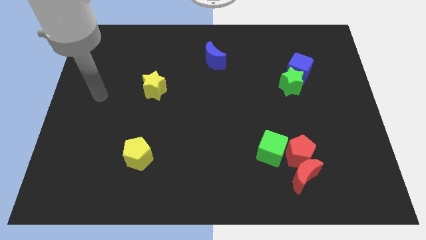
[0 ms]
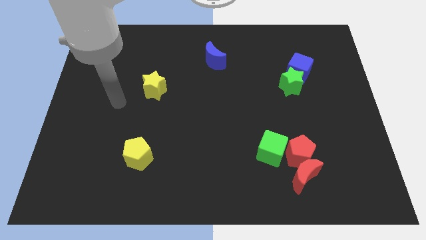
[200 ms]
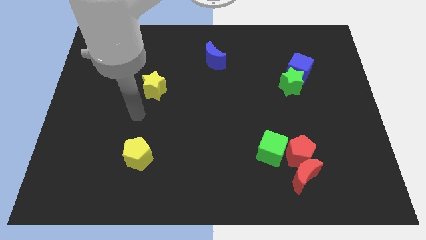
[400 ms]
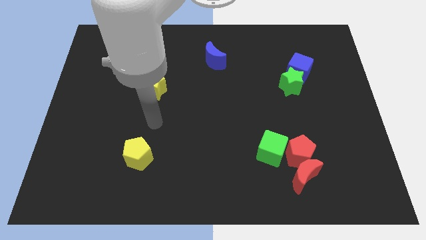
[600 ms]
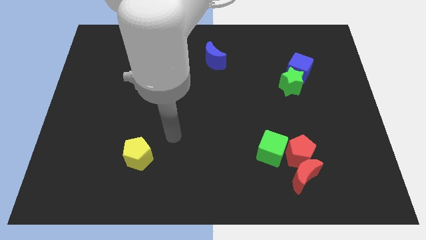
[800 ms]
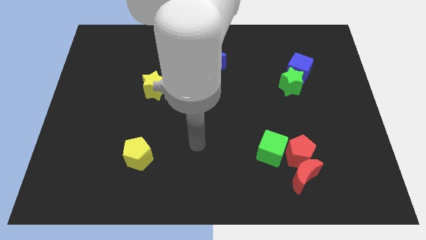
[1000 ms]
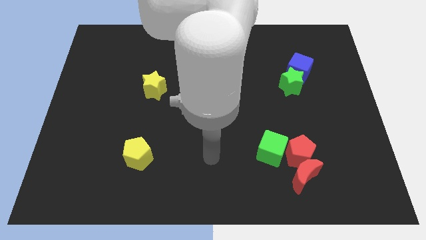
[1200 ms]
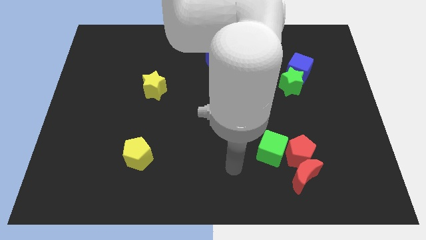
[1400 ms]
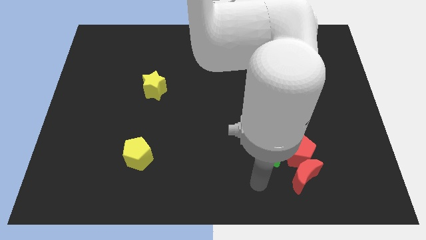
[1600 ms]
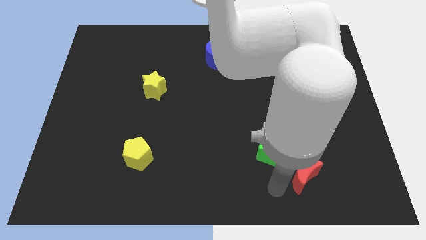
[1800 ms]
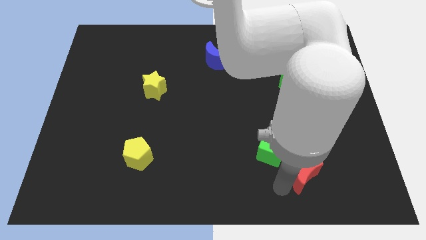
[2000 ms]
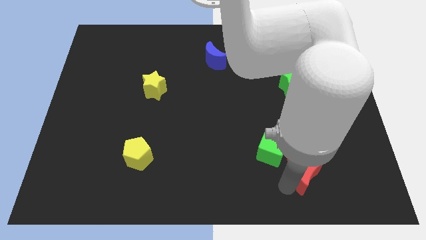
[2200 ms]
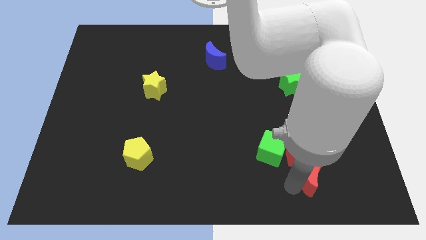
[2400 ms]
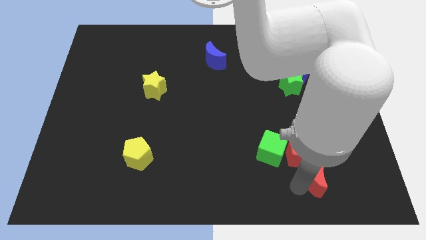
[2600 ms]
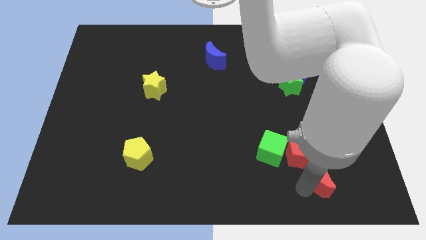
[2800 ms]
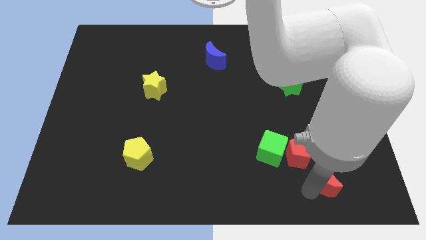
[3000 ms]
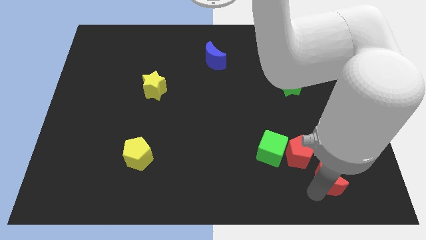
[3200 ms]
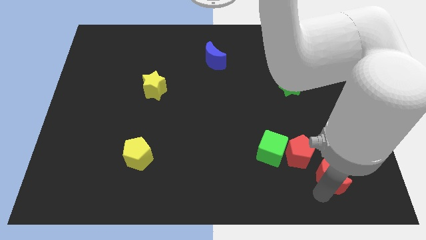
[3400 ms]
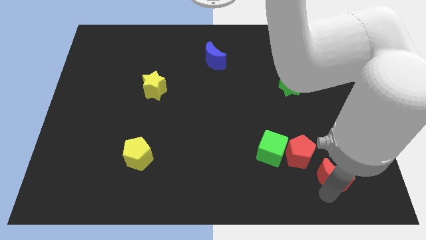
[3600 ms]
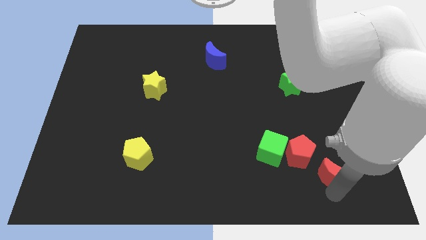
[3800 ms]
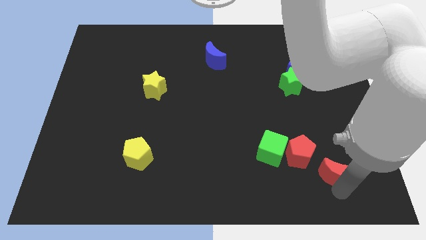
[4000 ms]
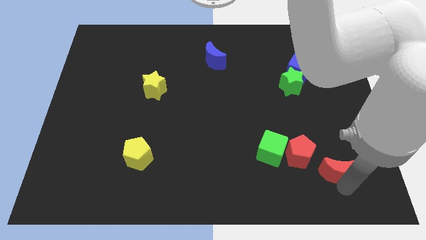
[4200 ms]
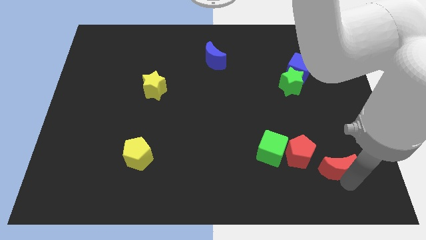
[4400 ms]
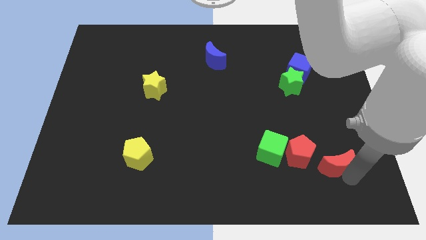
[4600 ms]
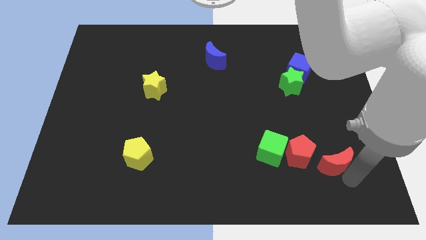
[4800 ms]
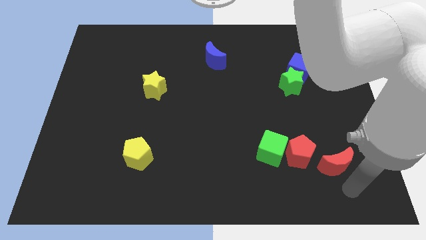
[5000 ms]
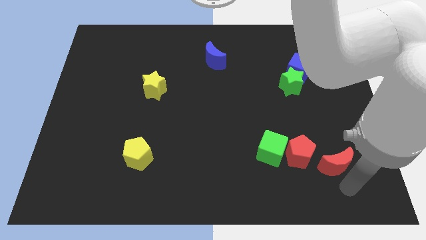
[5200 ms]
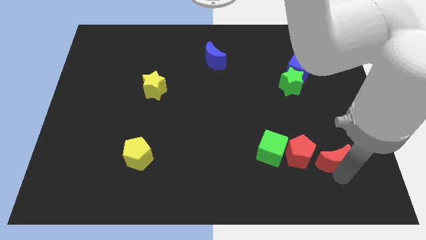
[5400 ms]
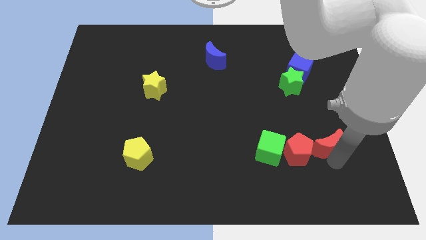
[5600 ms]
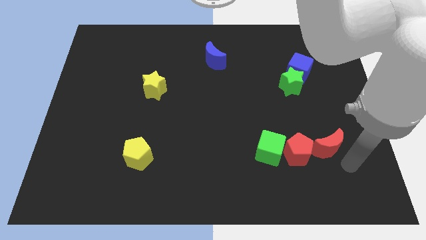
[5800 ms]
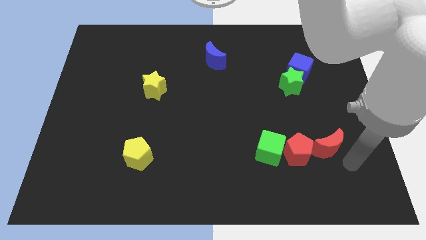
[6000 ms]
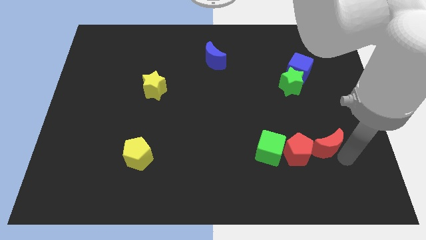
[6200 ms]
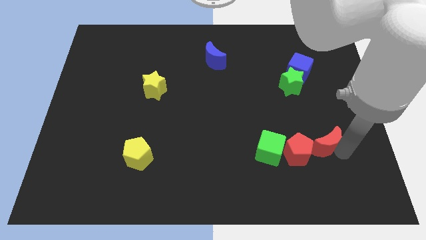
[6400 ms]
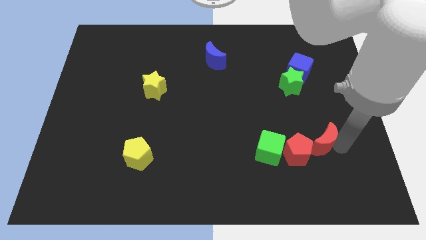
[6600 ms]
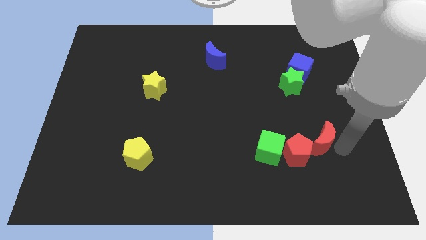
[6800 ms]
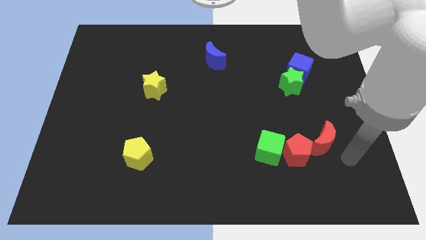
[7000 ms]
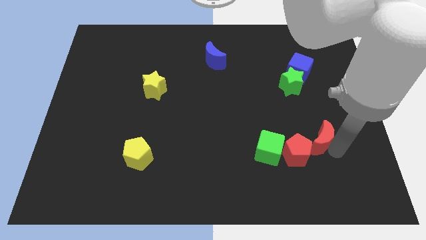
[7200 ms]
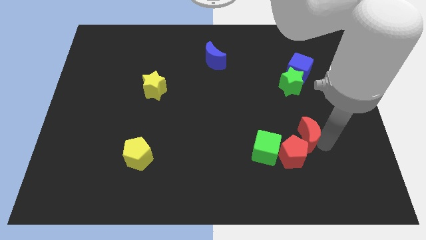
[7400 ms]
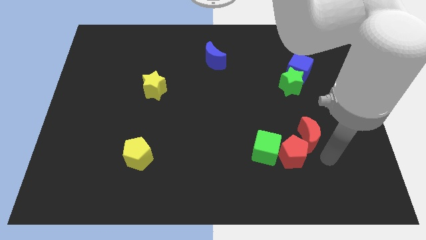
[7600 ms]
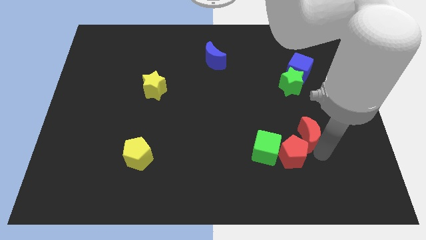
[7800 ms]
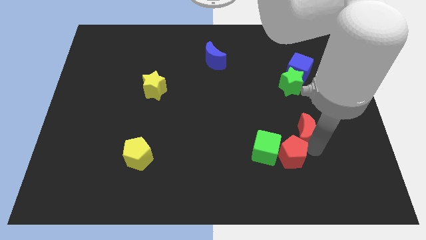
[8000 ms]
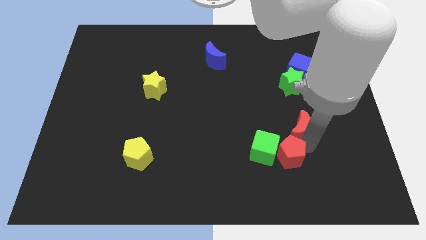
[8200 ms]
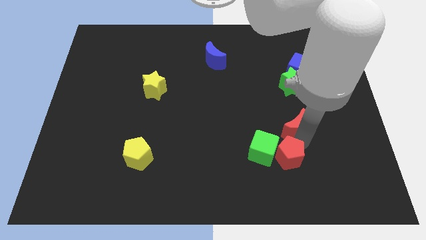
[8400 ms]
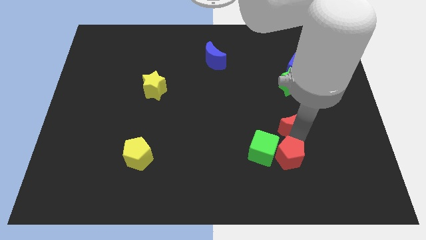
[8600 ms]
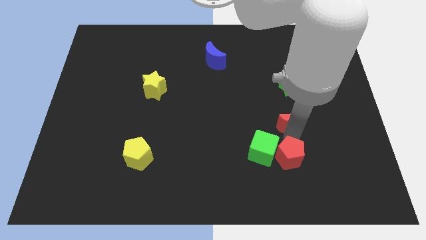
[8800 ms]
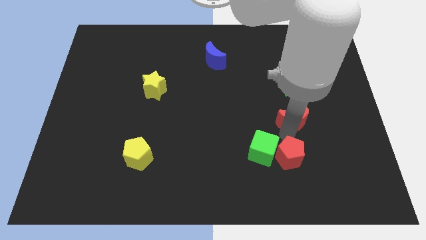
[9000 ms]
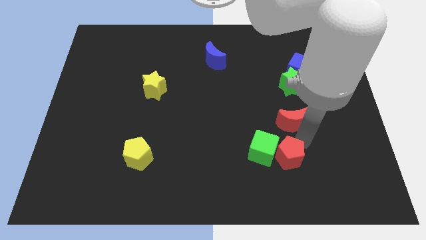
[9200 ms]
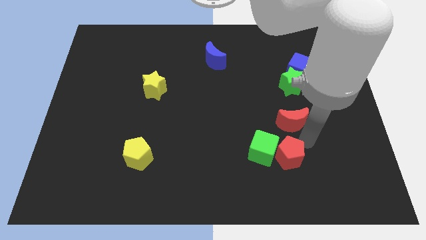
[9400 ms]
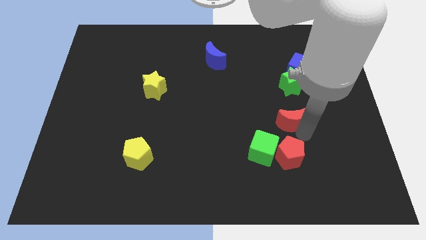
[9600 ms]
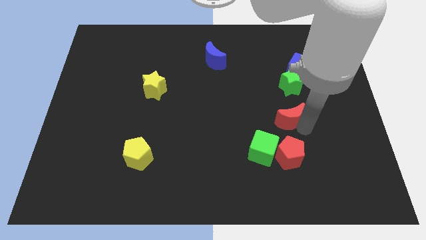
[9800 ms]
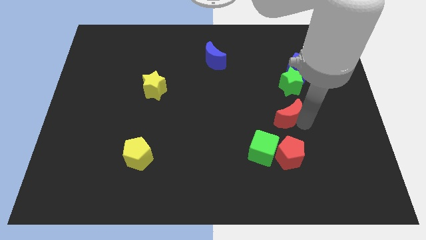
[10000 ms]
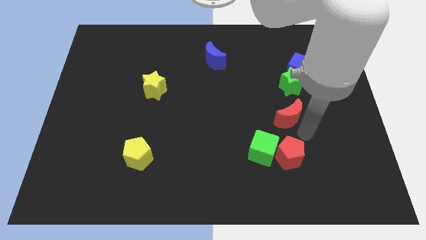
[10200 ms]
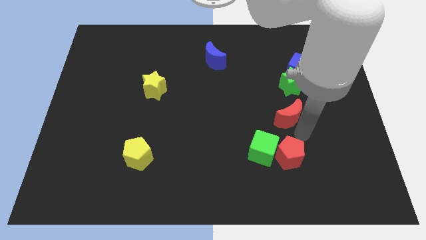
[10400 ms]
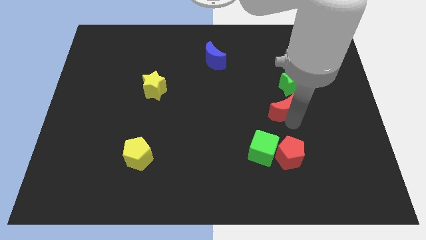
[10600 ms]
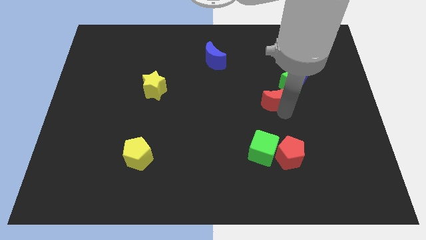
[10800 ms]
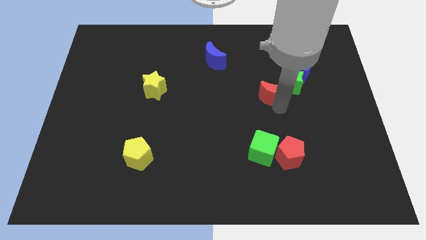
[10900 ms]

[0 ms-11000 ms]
push the red moon up

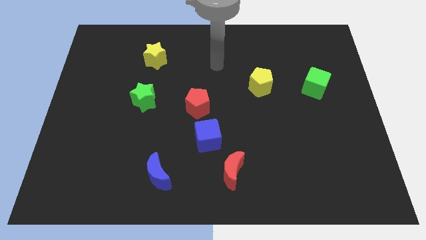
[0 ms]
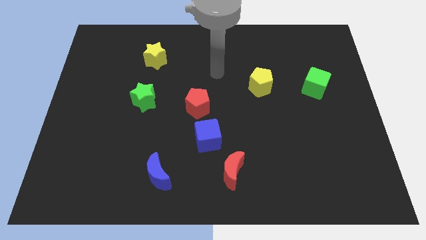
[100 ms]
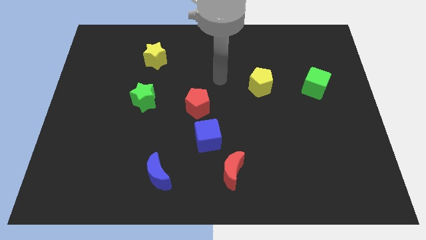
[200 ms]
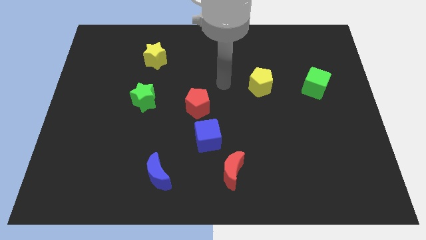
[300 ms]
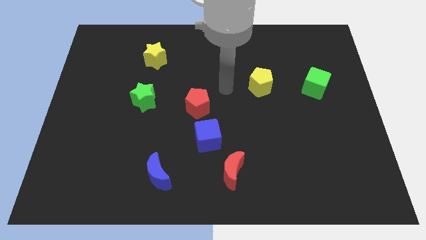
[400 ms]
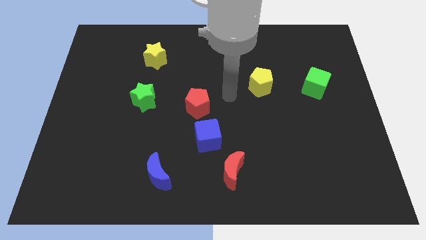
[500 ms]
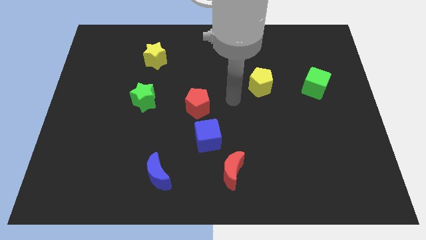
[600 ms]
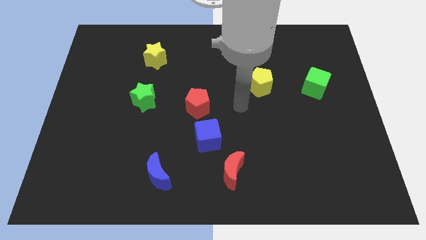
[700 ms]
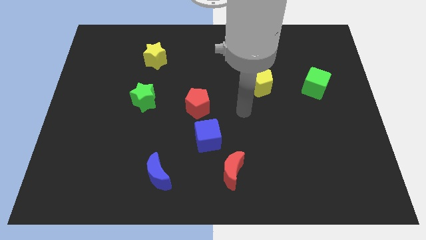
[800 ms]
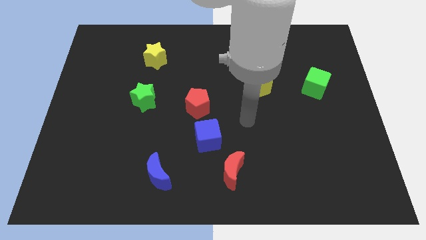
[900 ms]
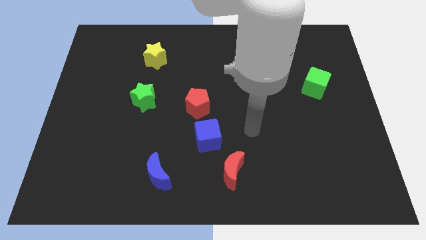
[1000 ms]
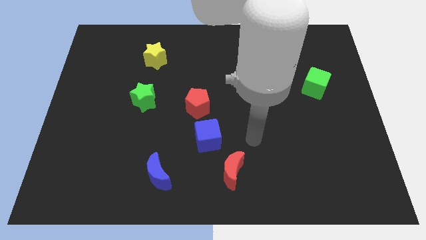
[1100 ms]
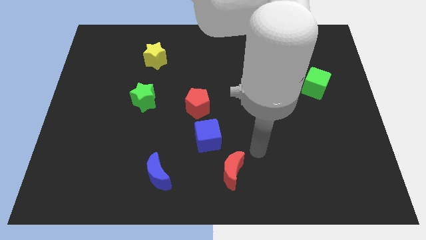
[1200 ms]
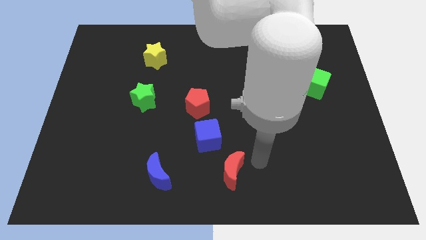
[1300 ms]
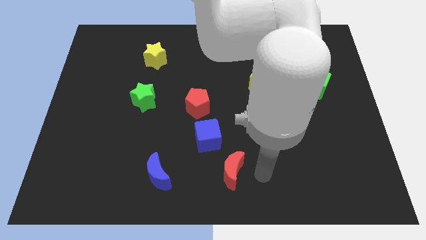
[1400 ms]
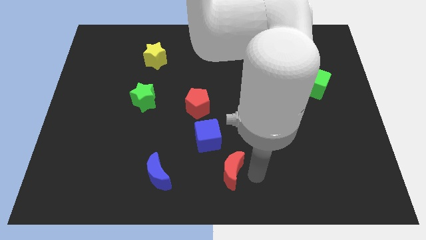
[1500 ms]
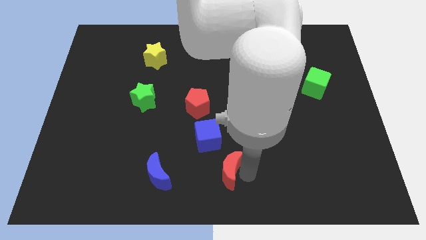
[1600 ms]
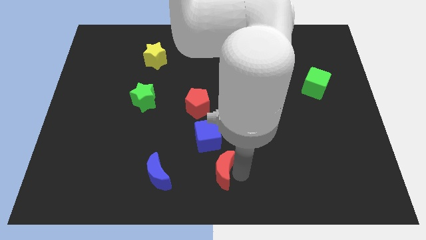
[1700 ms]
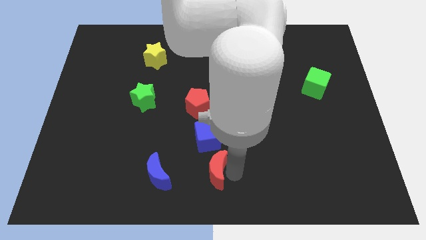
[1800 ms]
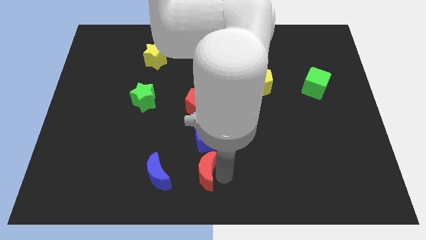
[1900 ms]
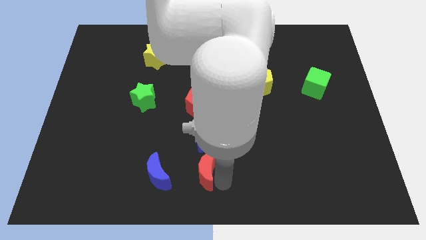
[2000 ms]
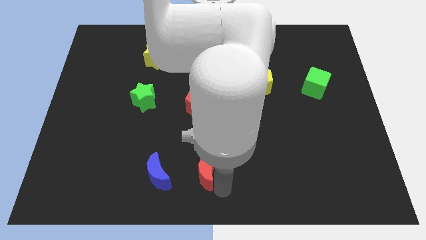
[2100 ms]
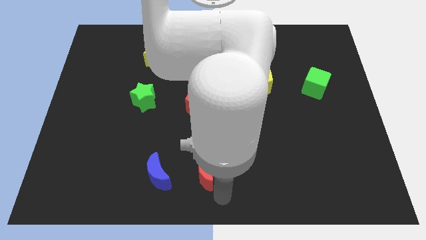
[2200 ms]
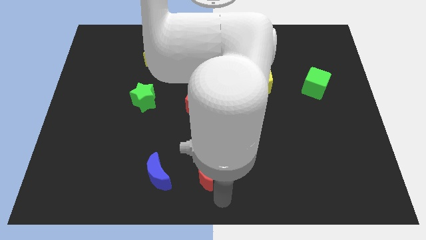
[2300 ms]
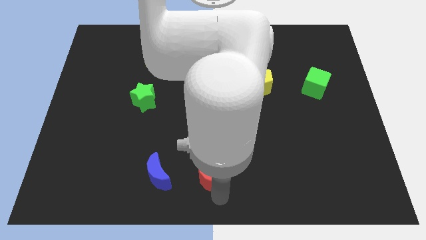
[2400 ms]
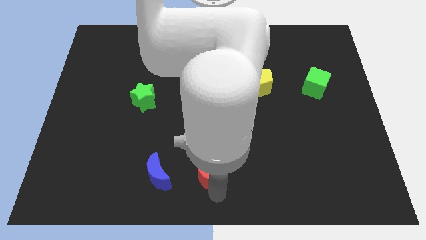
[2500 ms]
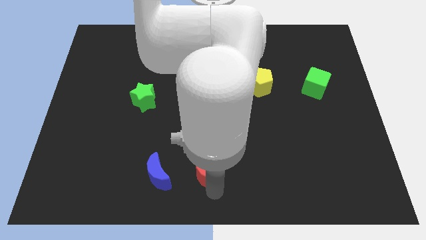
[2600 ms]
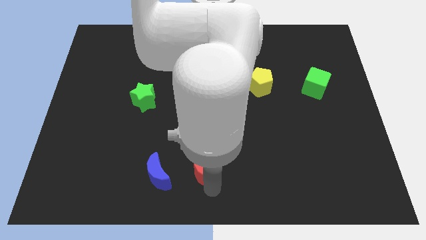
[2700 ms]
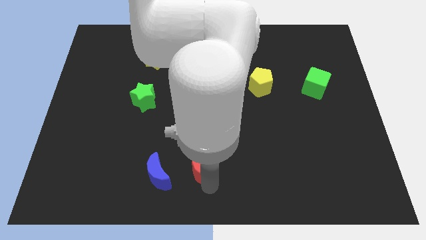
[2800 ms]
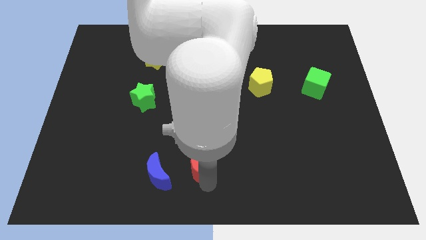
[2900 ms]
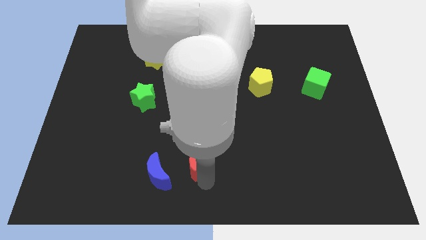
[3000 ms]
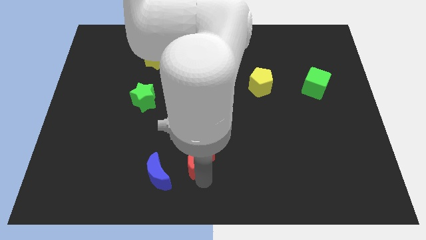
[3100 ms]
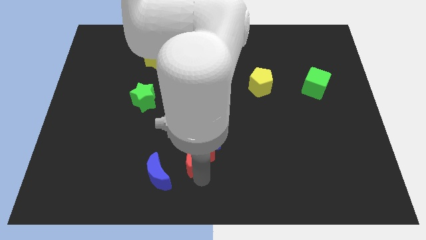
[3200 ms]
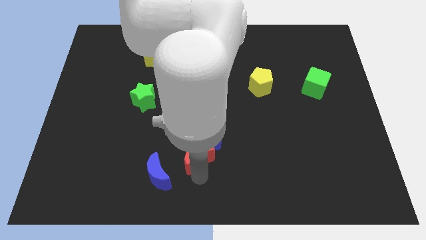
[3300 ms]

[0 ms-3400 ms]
slide the red moon diagonally up and left somewhat
